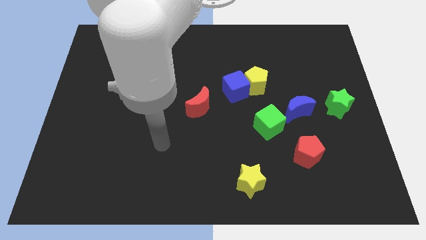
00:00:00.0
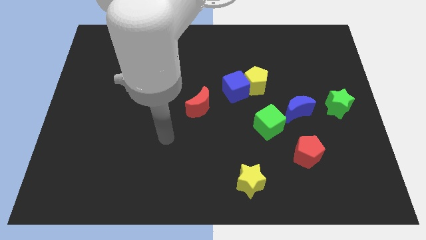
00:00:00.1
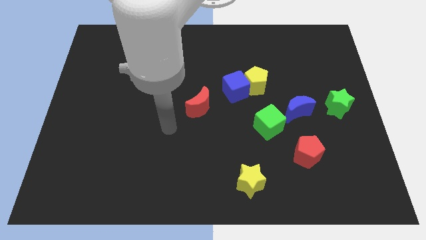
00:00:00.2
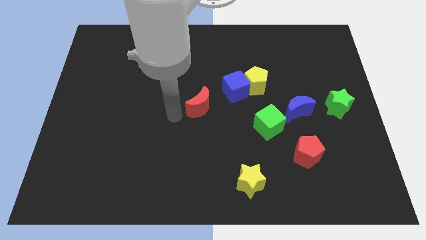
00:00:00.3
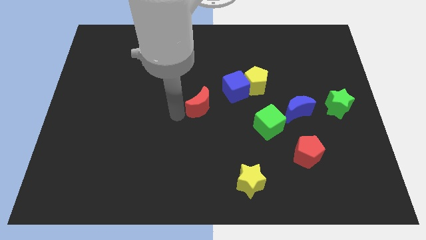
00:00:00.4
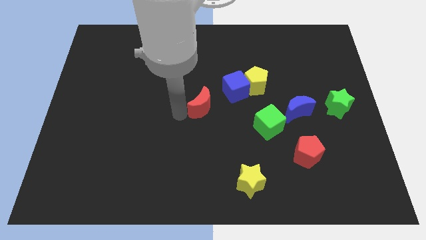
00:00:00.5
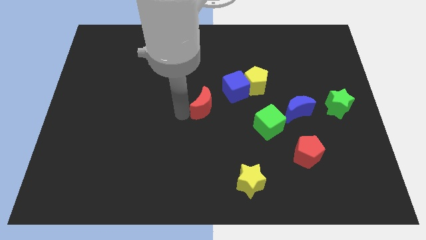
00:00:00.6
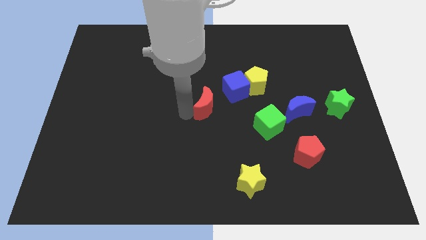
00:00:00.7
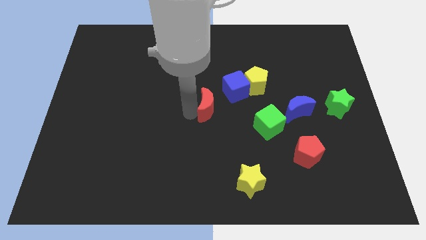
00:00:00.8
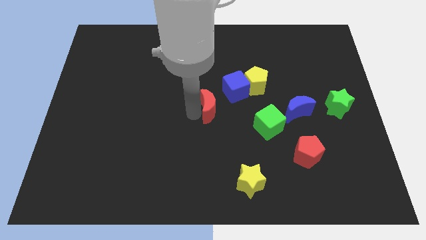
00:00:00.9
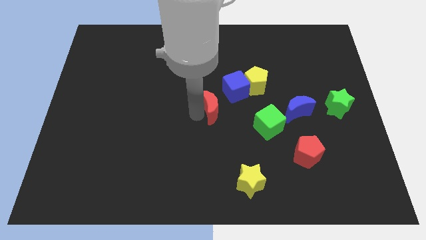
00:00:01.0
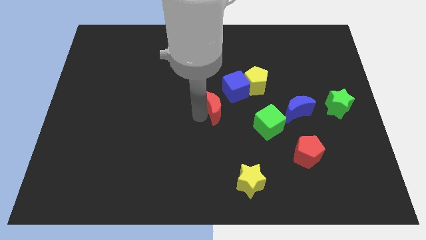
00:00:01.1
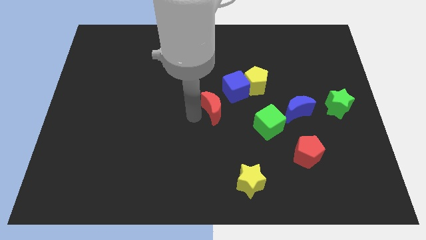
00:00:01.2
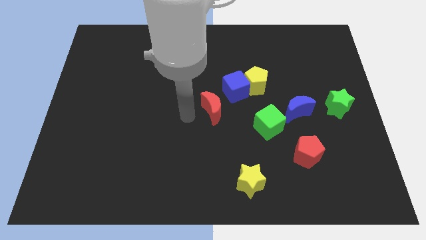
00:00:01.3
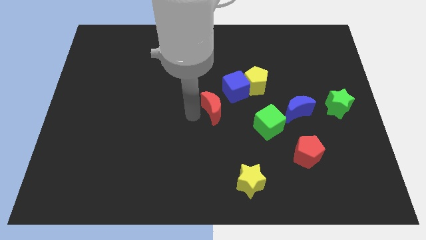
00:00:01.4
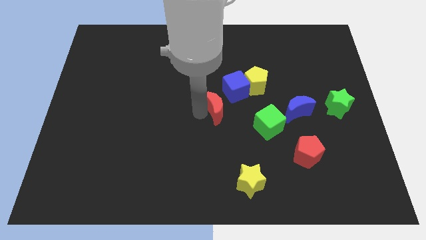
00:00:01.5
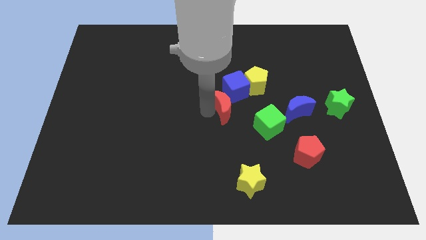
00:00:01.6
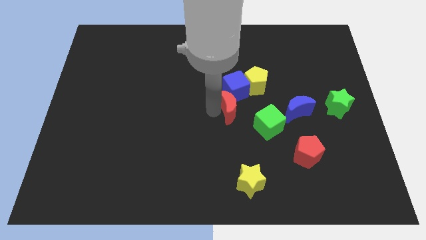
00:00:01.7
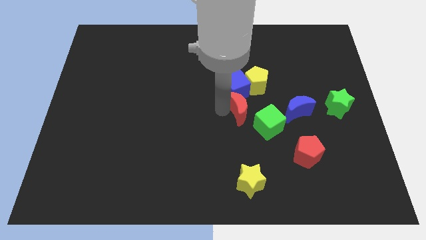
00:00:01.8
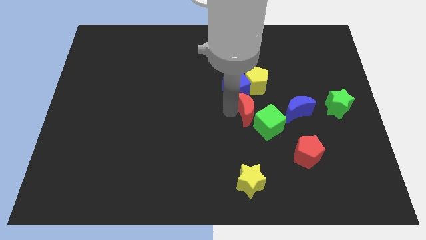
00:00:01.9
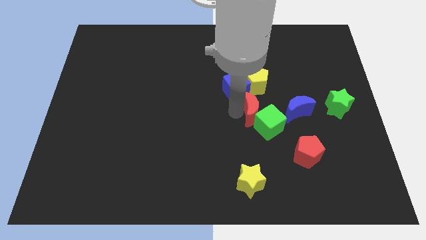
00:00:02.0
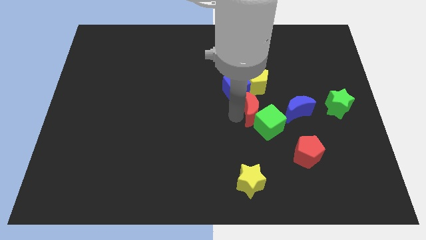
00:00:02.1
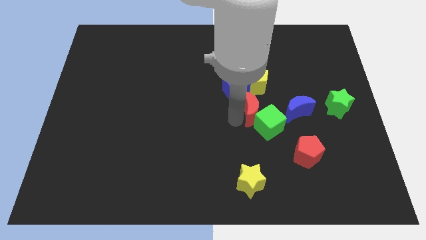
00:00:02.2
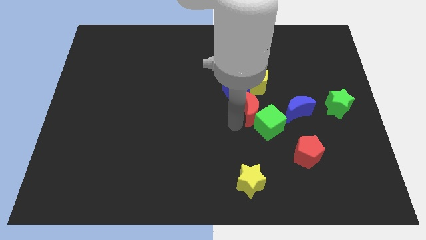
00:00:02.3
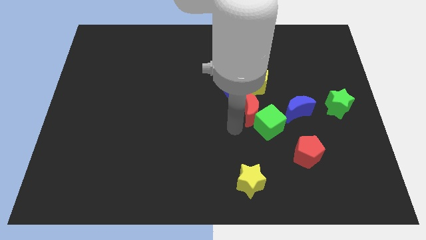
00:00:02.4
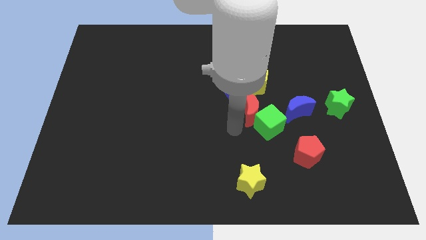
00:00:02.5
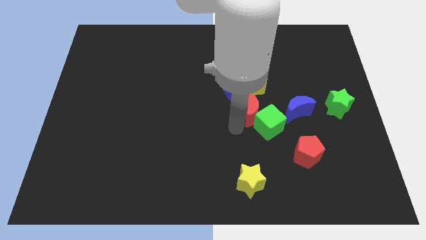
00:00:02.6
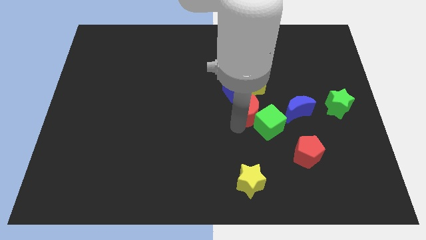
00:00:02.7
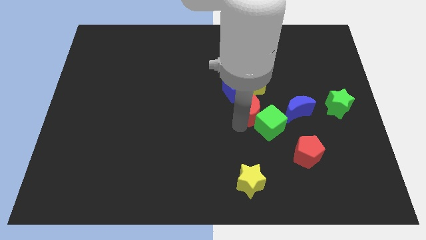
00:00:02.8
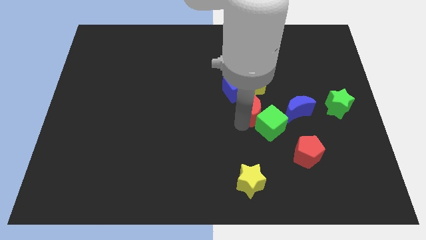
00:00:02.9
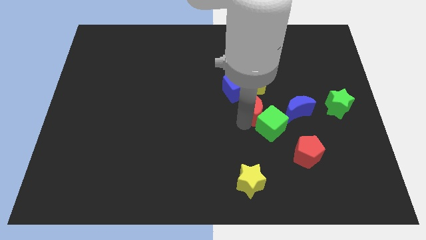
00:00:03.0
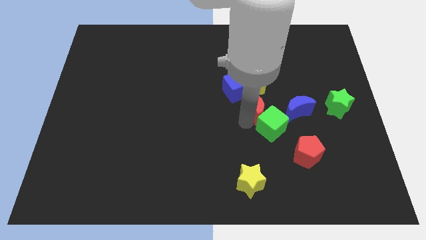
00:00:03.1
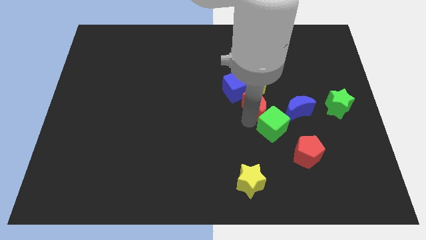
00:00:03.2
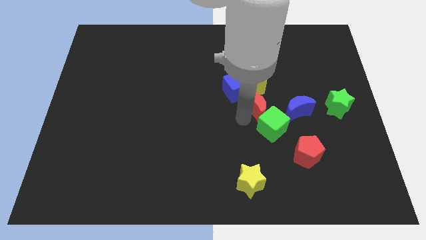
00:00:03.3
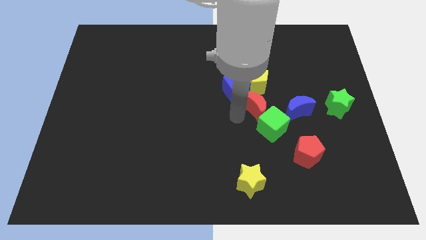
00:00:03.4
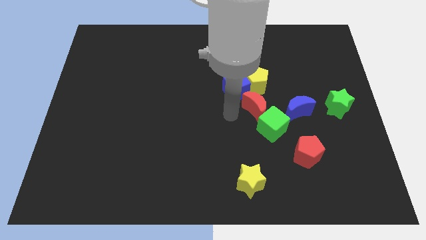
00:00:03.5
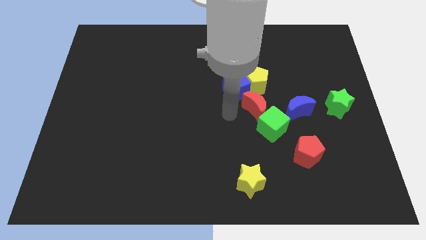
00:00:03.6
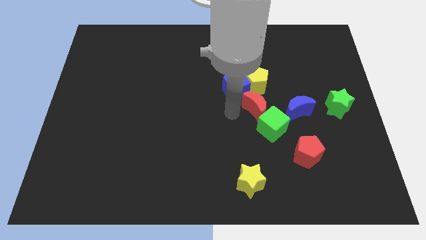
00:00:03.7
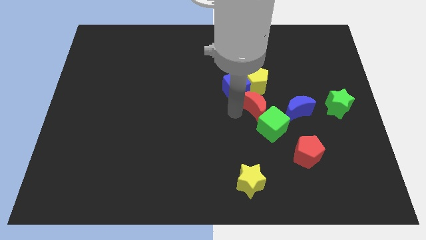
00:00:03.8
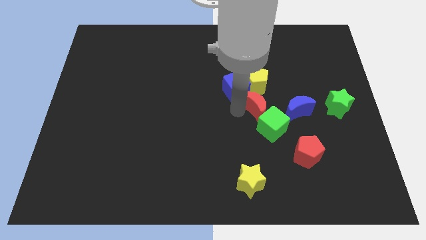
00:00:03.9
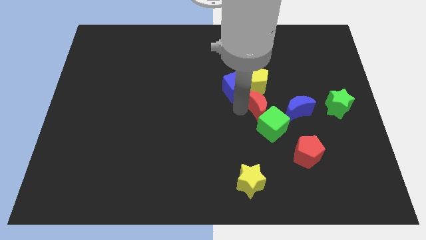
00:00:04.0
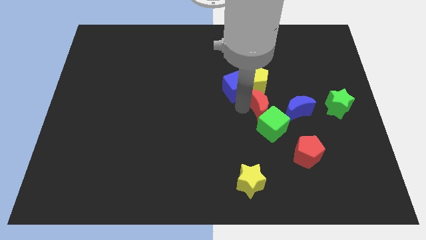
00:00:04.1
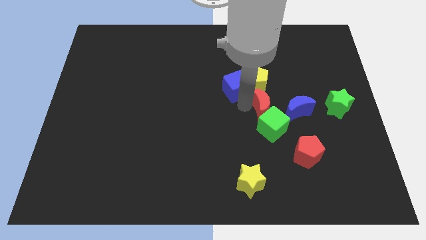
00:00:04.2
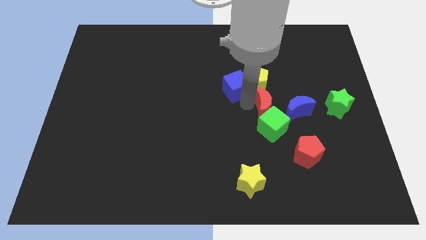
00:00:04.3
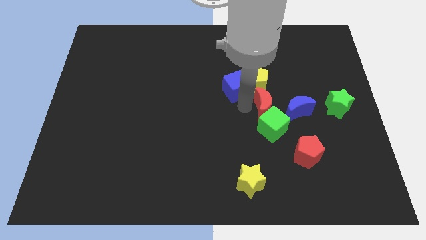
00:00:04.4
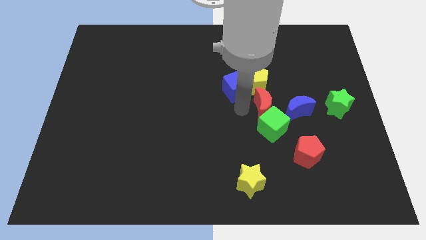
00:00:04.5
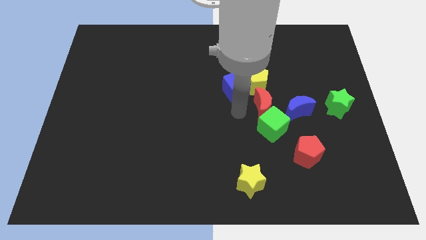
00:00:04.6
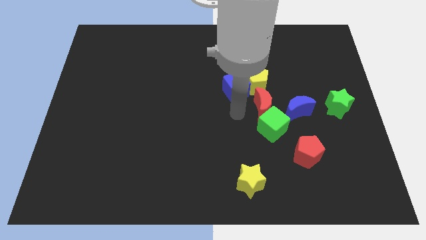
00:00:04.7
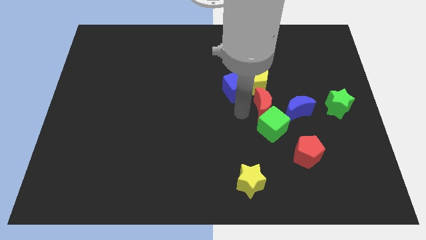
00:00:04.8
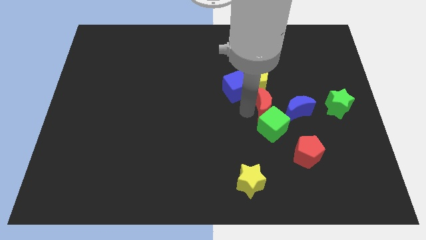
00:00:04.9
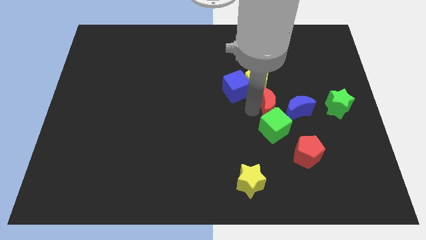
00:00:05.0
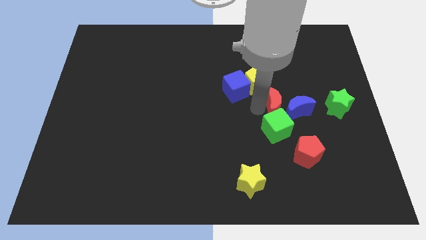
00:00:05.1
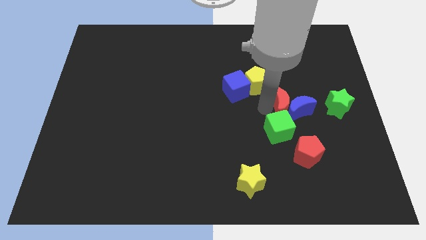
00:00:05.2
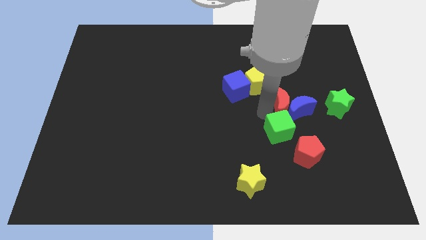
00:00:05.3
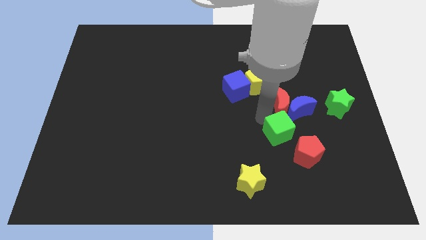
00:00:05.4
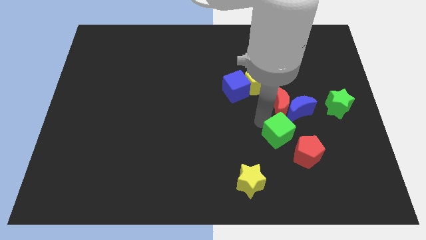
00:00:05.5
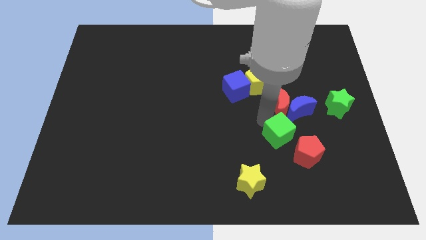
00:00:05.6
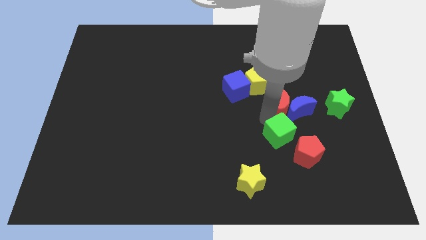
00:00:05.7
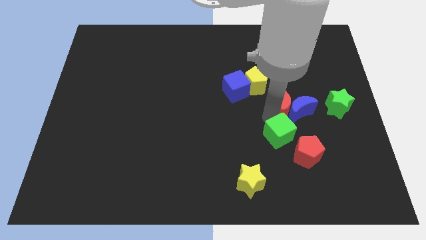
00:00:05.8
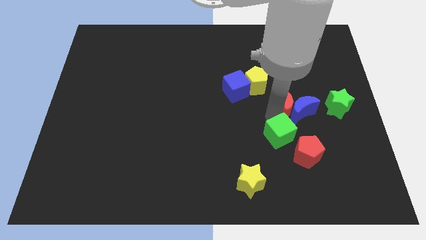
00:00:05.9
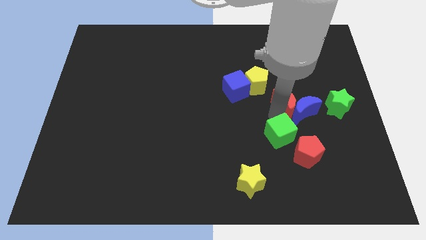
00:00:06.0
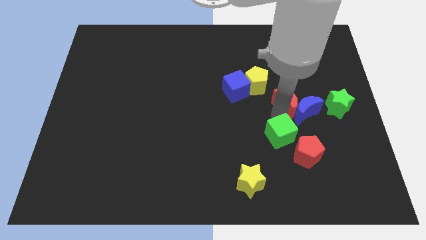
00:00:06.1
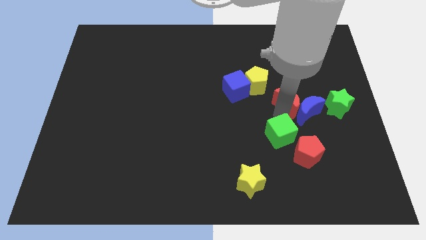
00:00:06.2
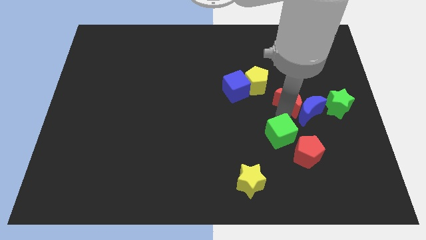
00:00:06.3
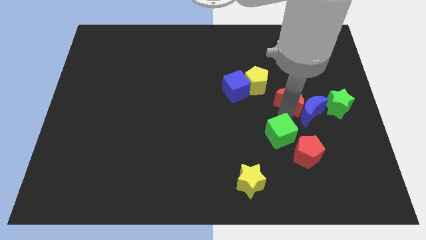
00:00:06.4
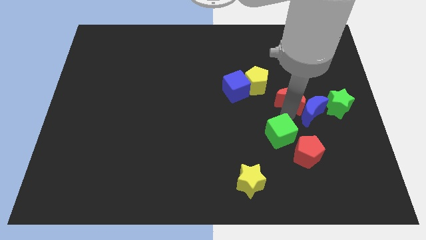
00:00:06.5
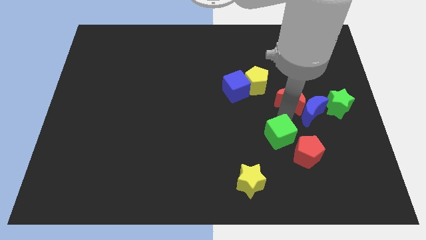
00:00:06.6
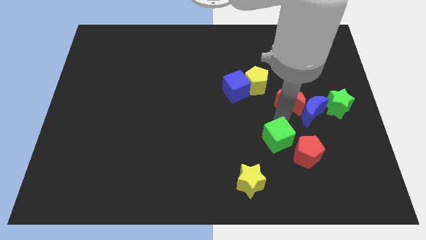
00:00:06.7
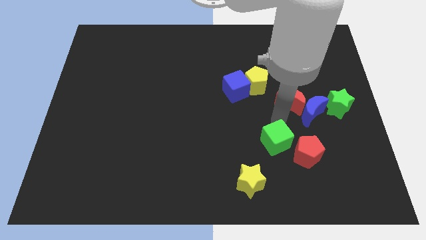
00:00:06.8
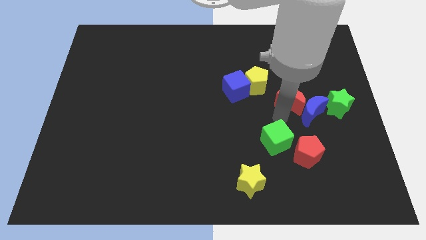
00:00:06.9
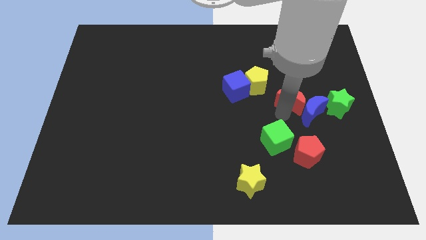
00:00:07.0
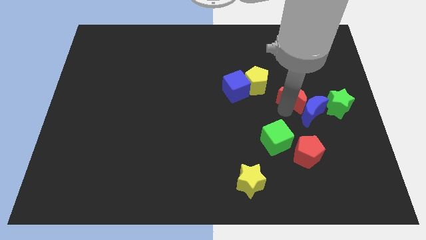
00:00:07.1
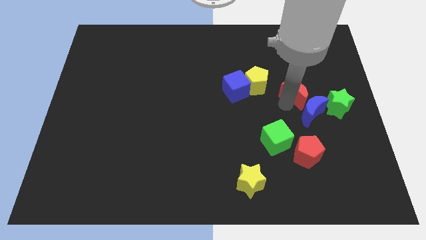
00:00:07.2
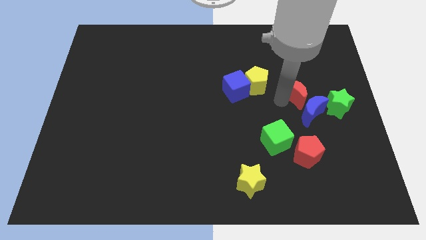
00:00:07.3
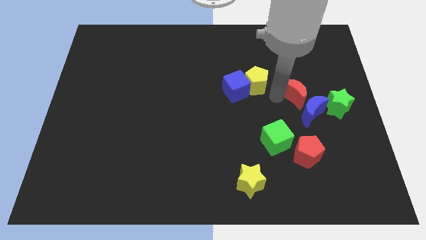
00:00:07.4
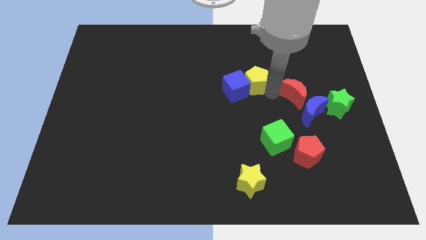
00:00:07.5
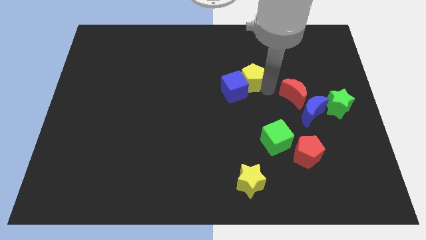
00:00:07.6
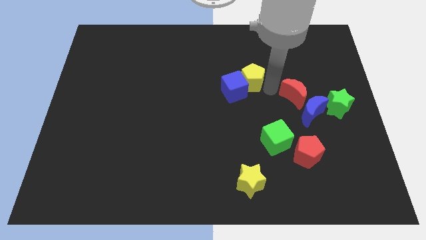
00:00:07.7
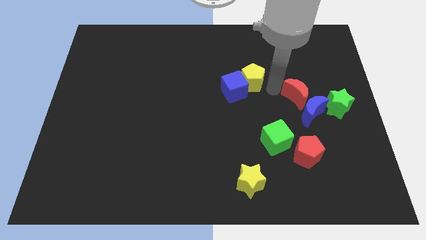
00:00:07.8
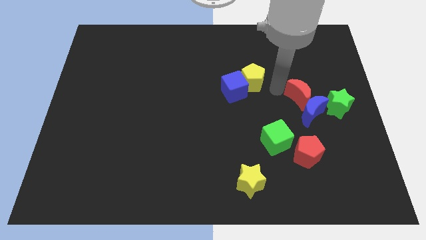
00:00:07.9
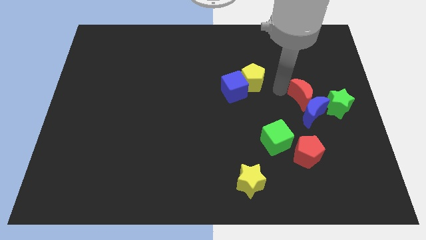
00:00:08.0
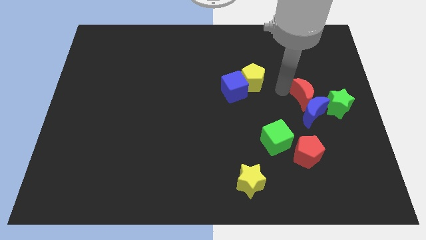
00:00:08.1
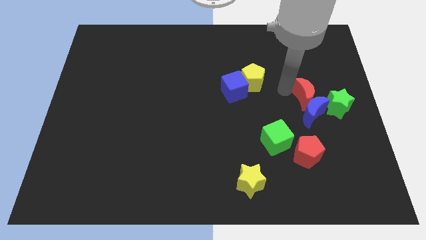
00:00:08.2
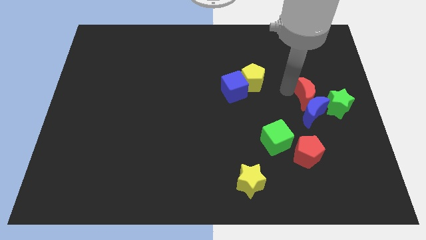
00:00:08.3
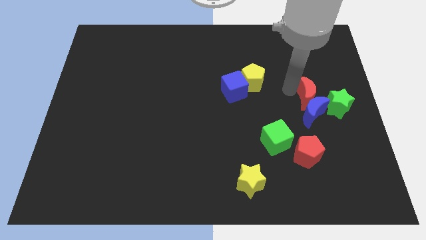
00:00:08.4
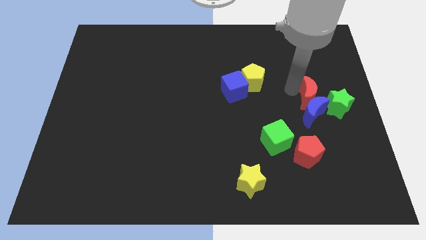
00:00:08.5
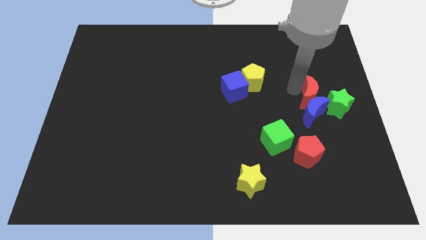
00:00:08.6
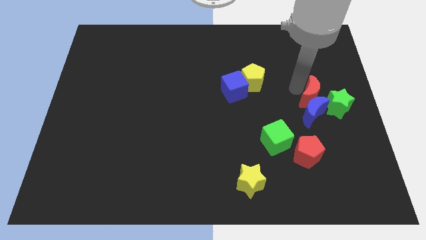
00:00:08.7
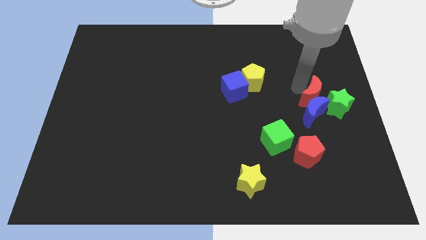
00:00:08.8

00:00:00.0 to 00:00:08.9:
slide the red moon next to the green star
